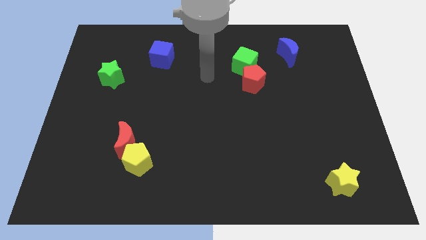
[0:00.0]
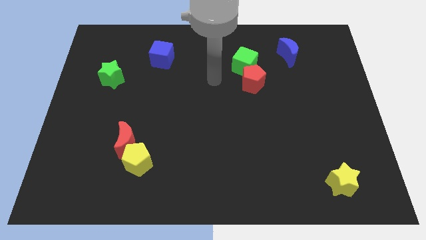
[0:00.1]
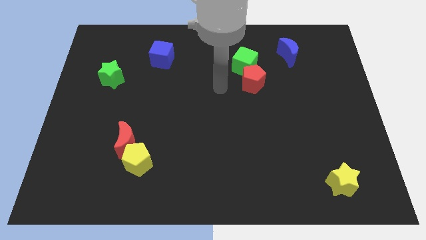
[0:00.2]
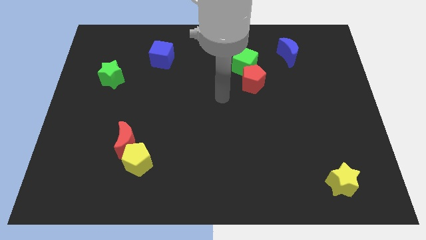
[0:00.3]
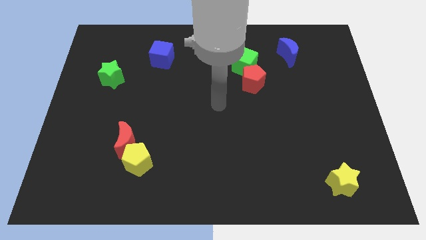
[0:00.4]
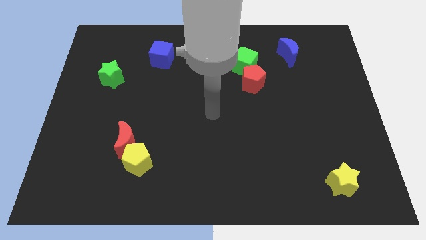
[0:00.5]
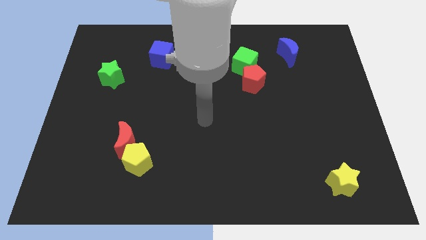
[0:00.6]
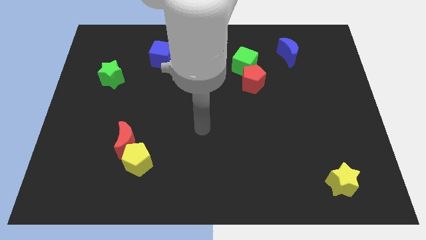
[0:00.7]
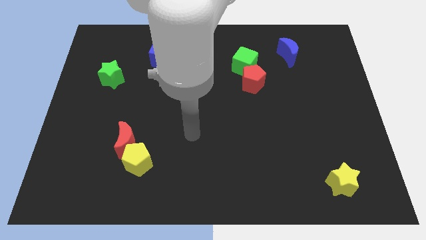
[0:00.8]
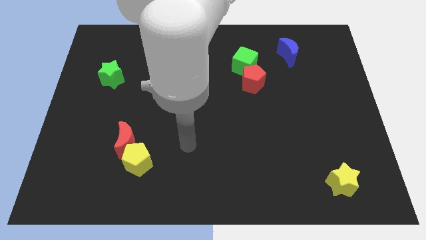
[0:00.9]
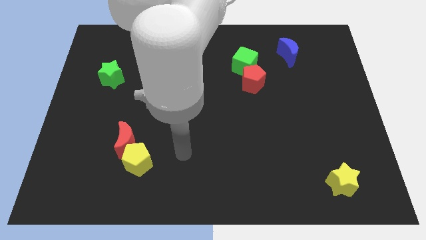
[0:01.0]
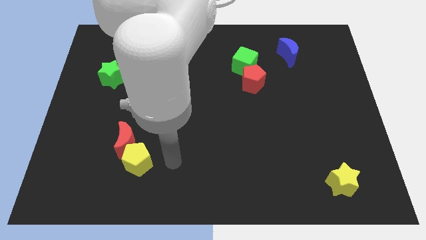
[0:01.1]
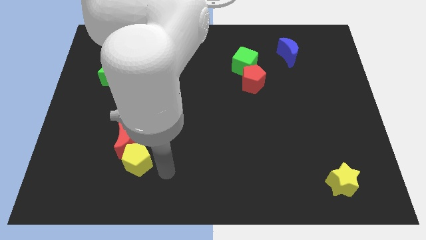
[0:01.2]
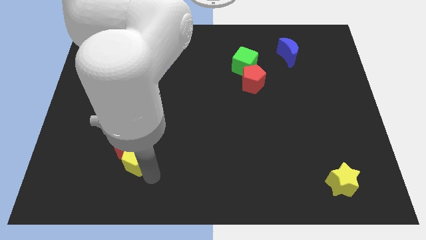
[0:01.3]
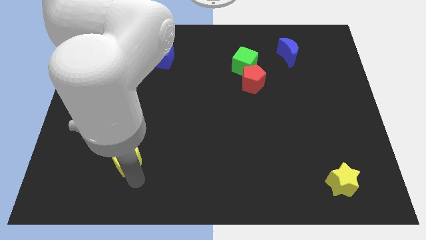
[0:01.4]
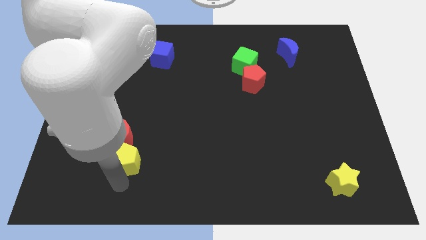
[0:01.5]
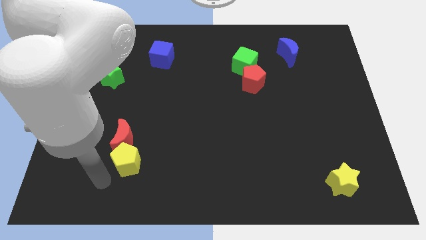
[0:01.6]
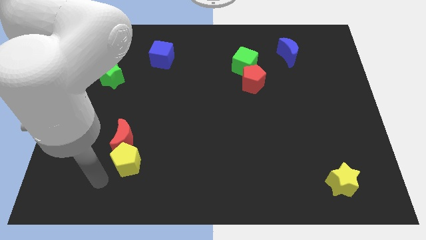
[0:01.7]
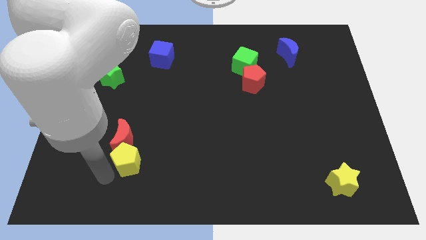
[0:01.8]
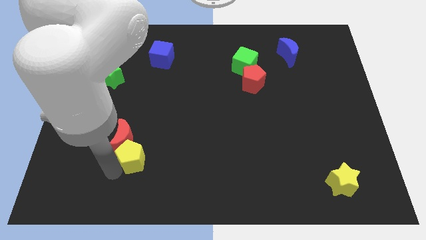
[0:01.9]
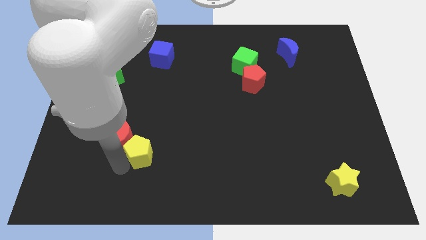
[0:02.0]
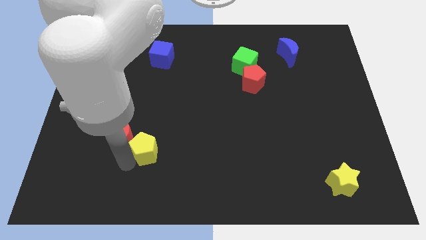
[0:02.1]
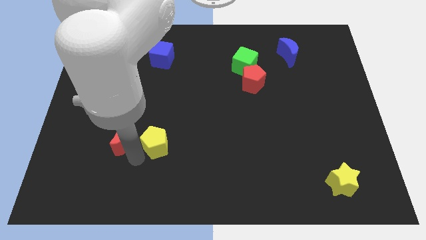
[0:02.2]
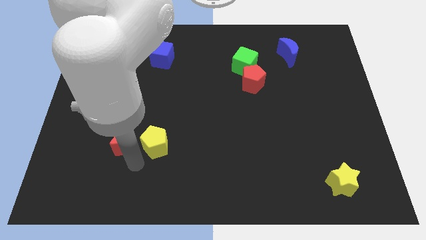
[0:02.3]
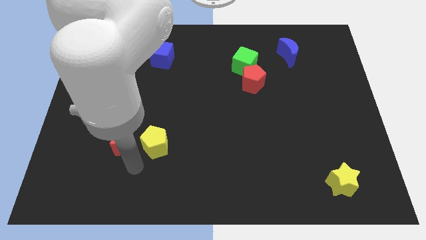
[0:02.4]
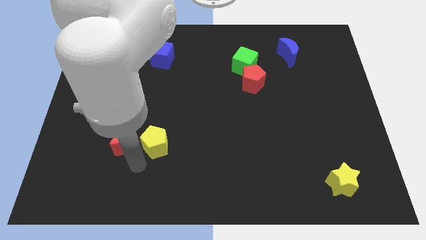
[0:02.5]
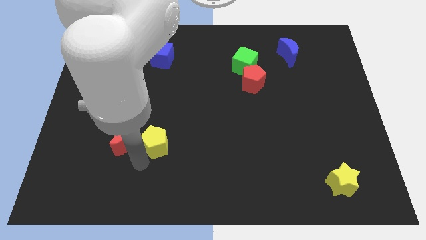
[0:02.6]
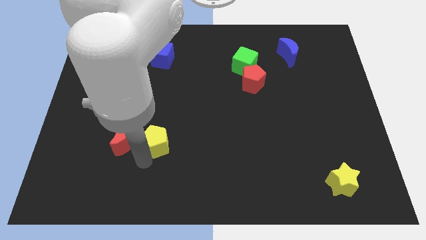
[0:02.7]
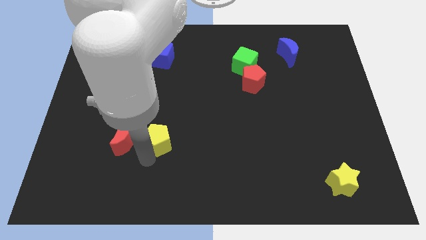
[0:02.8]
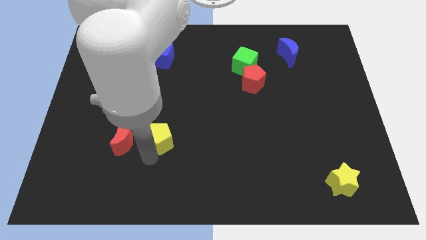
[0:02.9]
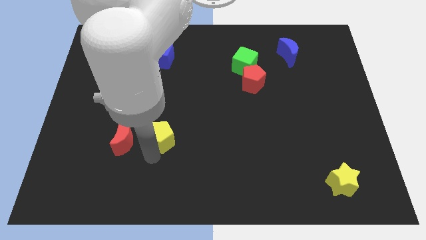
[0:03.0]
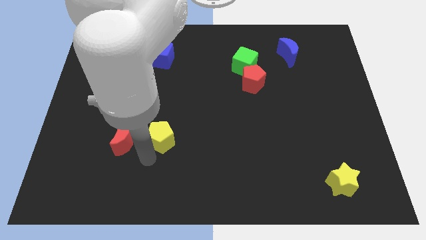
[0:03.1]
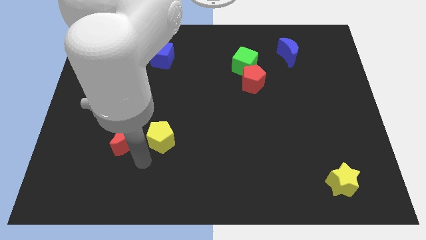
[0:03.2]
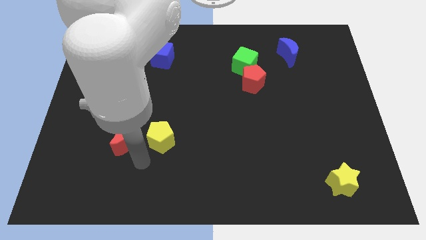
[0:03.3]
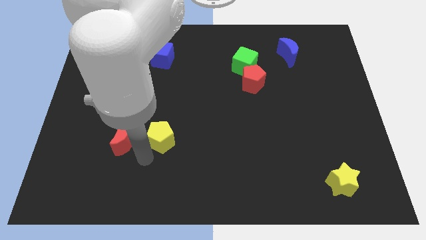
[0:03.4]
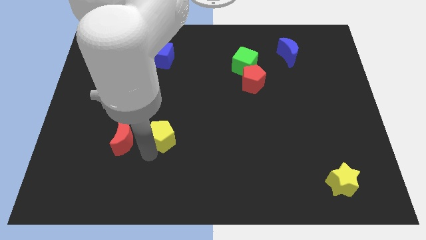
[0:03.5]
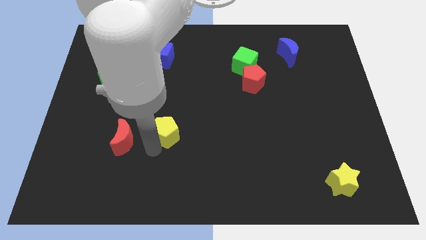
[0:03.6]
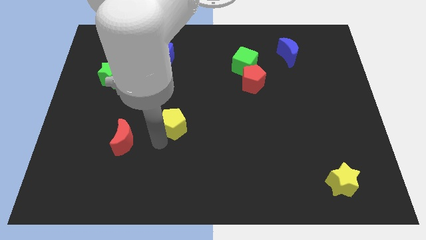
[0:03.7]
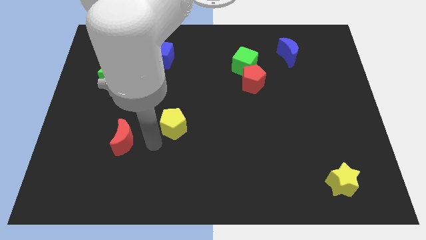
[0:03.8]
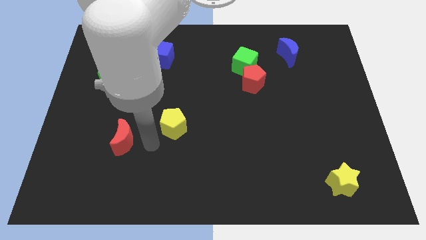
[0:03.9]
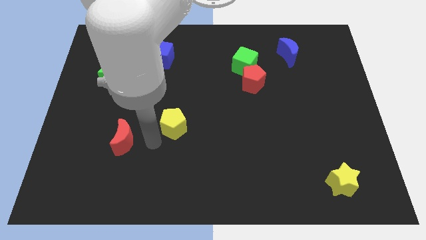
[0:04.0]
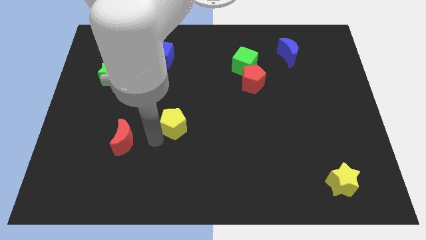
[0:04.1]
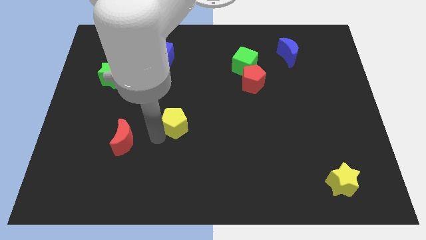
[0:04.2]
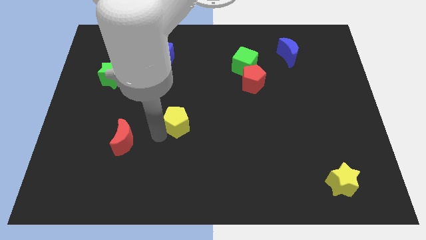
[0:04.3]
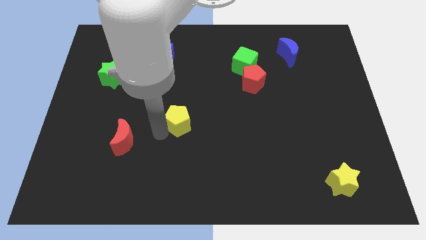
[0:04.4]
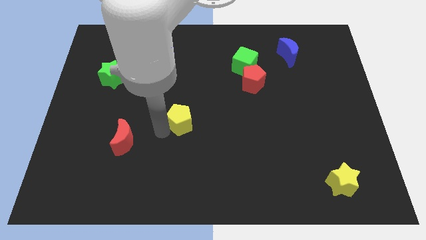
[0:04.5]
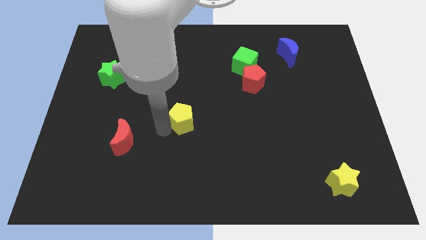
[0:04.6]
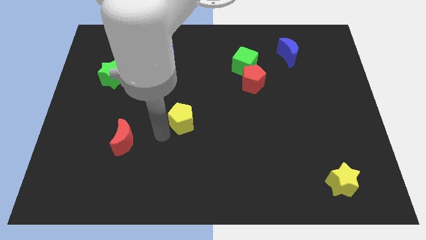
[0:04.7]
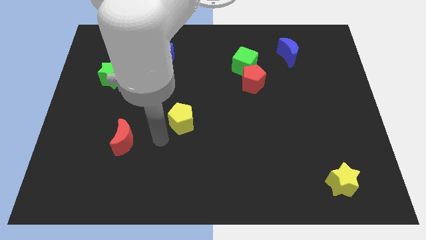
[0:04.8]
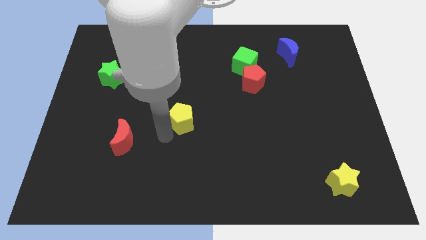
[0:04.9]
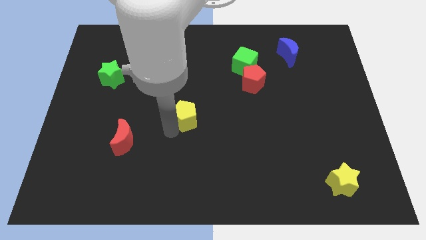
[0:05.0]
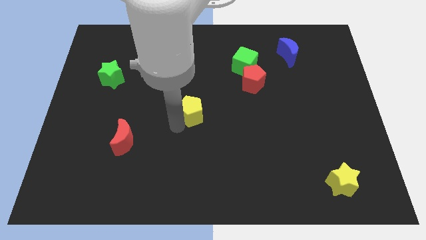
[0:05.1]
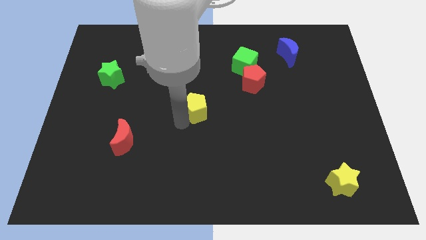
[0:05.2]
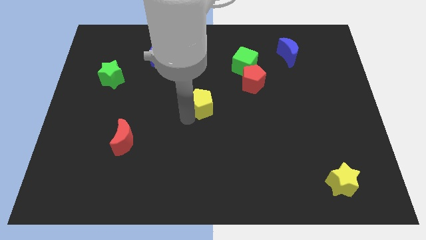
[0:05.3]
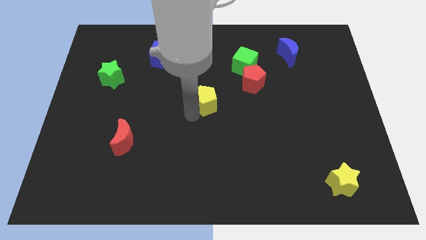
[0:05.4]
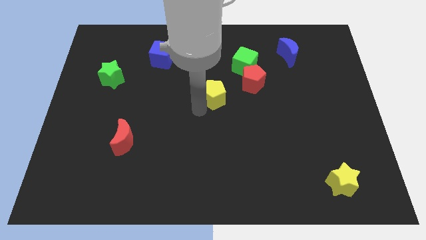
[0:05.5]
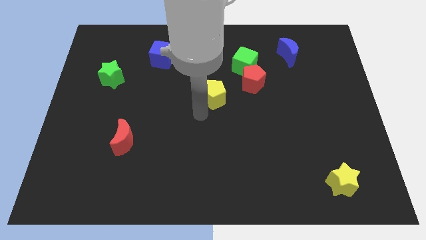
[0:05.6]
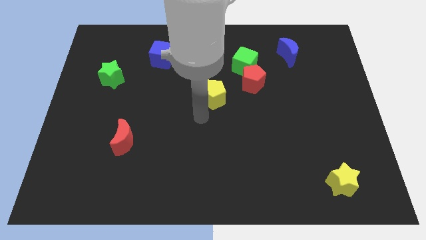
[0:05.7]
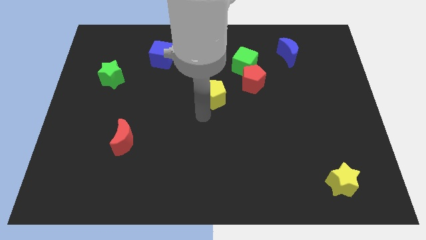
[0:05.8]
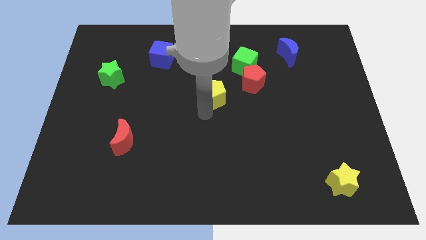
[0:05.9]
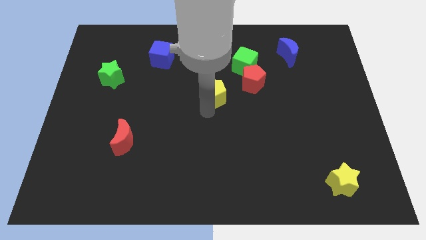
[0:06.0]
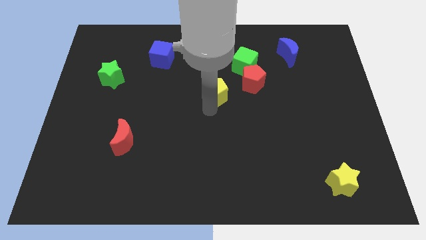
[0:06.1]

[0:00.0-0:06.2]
put the yellow pentagon diagonally down and to the left of the green cube
